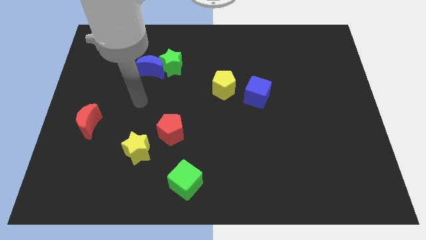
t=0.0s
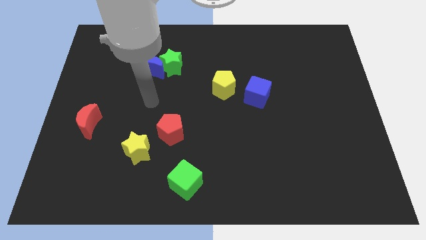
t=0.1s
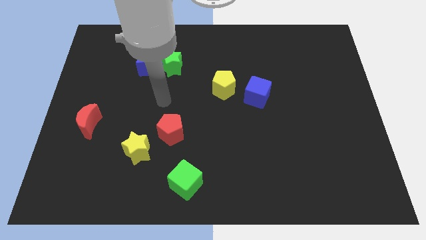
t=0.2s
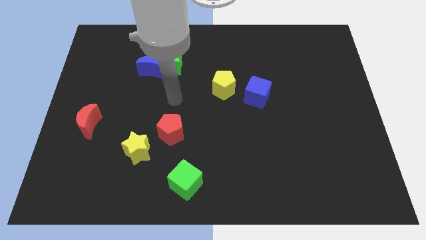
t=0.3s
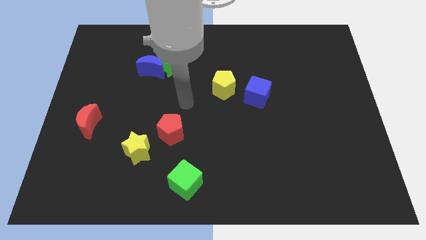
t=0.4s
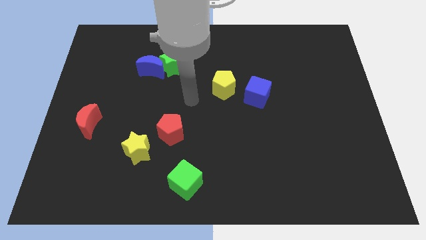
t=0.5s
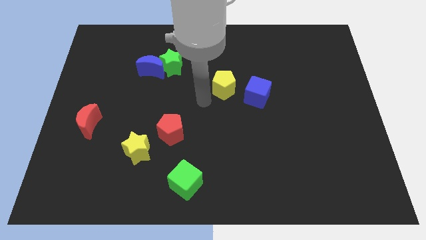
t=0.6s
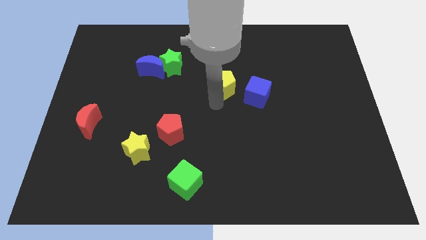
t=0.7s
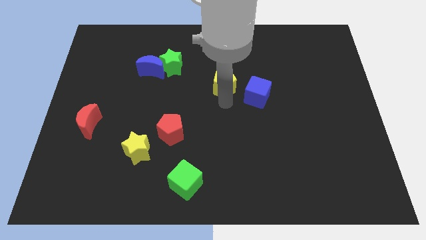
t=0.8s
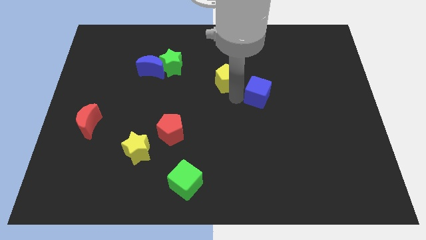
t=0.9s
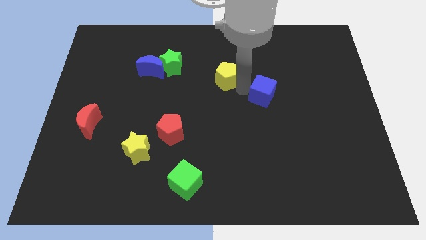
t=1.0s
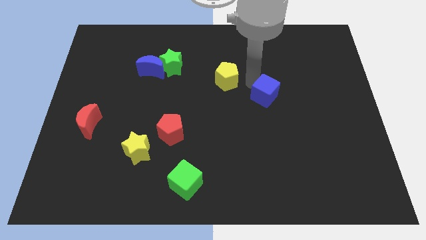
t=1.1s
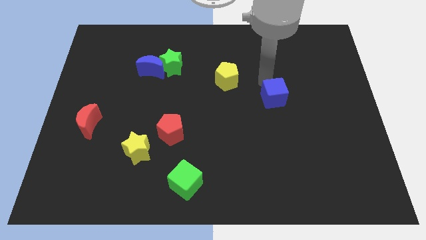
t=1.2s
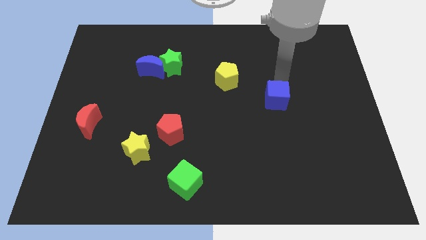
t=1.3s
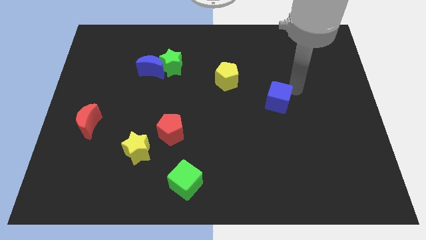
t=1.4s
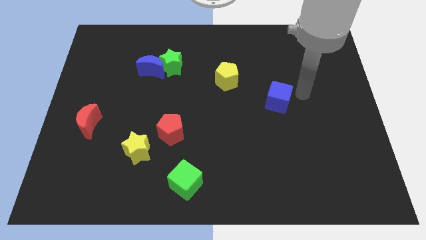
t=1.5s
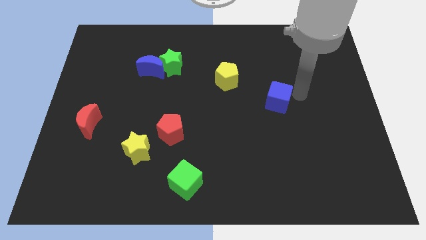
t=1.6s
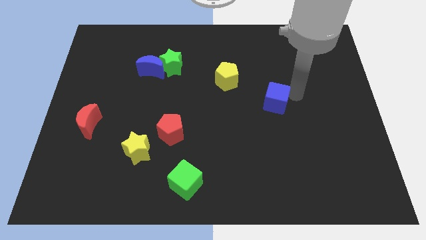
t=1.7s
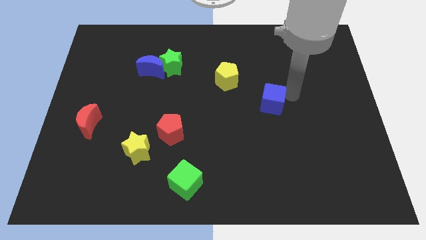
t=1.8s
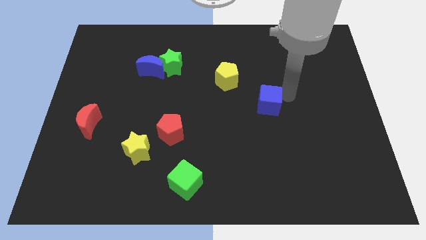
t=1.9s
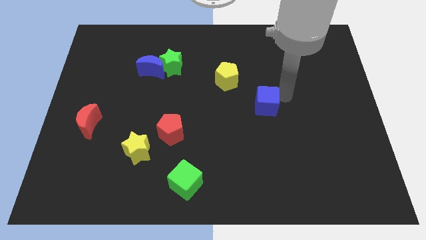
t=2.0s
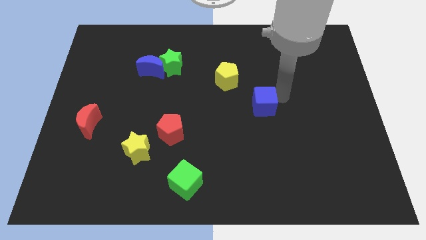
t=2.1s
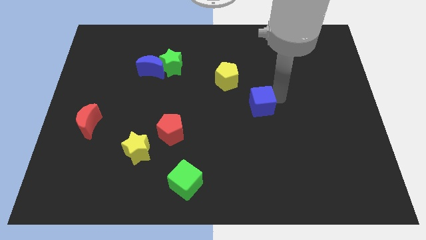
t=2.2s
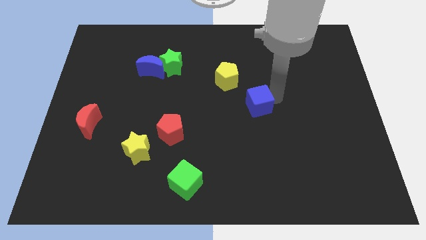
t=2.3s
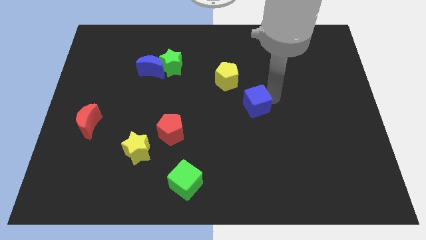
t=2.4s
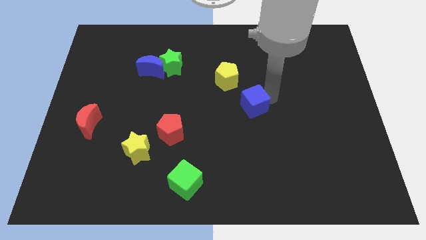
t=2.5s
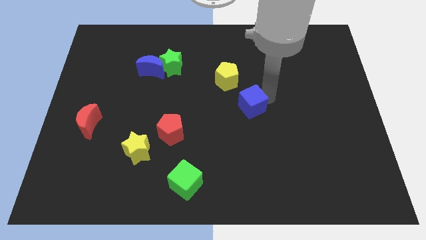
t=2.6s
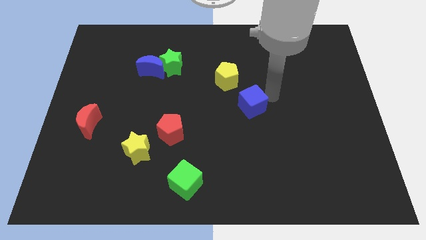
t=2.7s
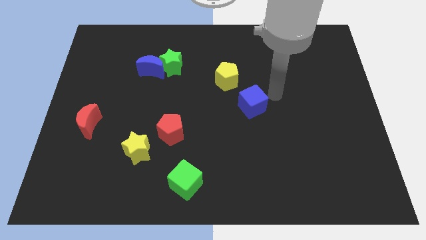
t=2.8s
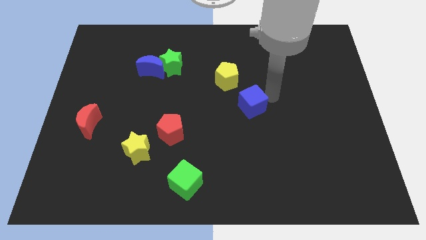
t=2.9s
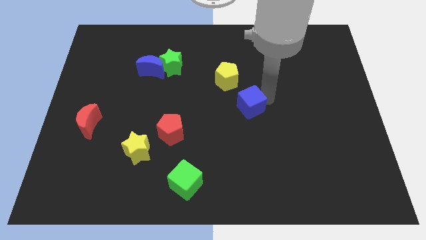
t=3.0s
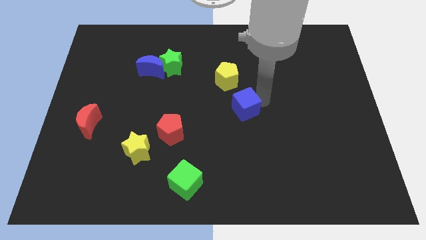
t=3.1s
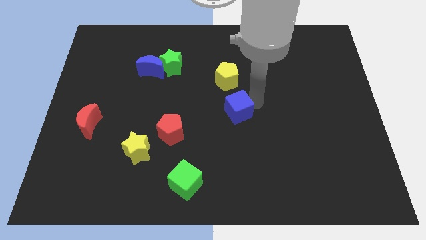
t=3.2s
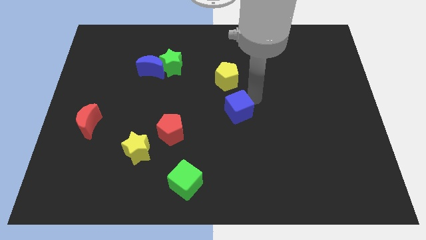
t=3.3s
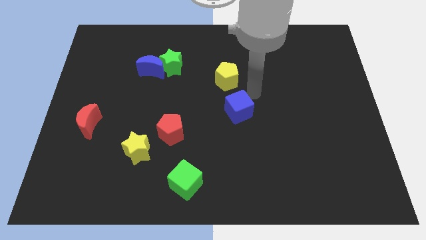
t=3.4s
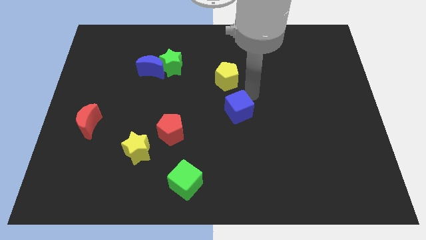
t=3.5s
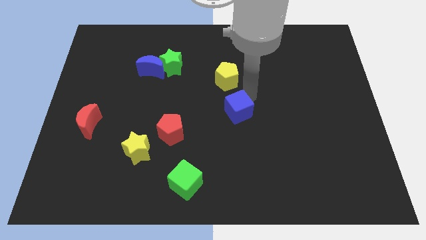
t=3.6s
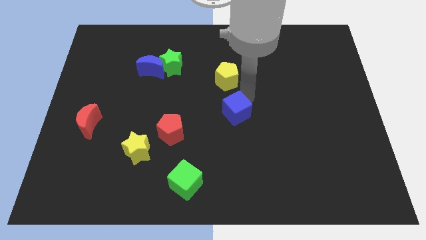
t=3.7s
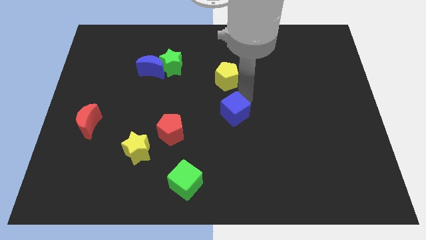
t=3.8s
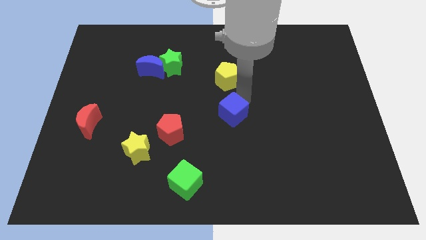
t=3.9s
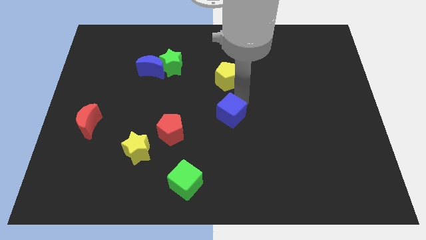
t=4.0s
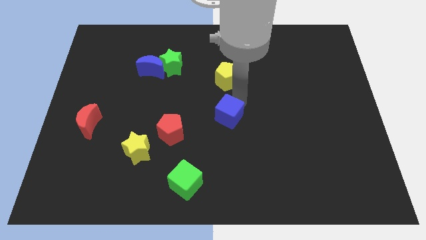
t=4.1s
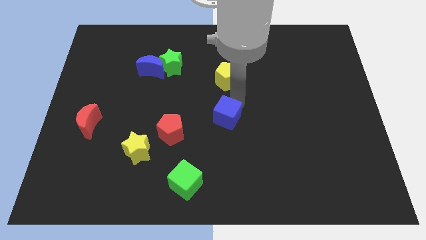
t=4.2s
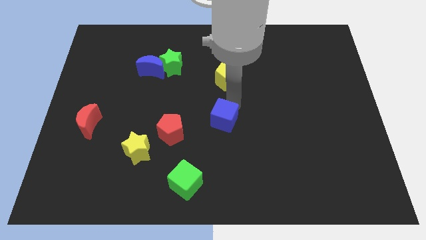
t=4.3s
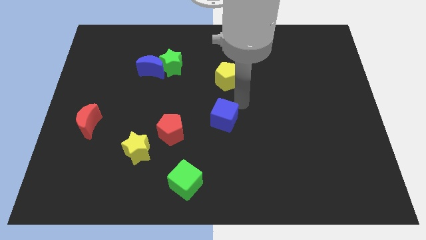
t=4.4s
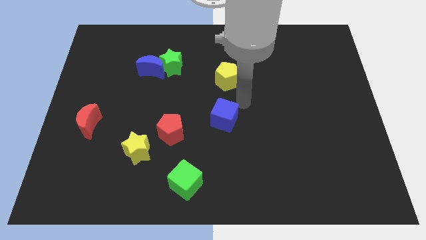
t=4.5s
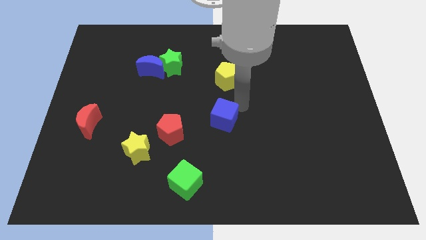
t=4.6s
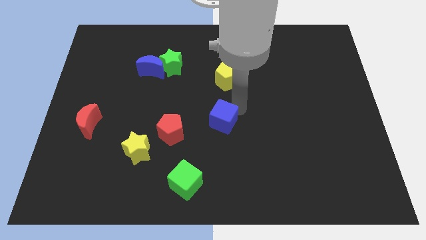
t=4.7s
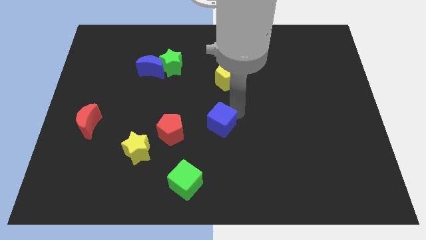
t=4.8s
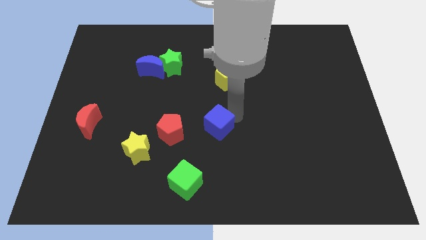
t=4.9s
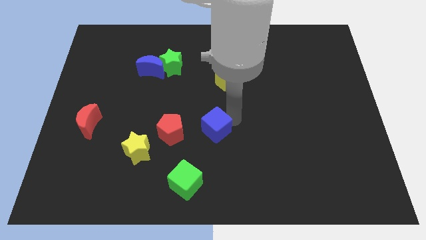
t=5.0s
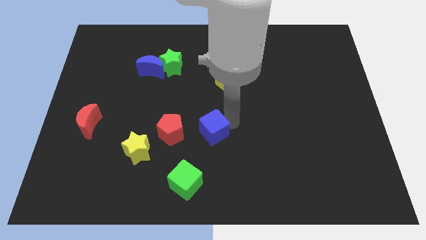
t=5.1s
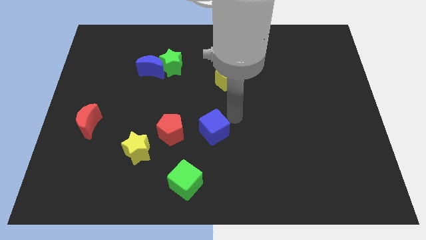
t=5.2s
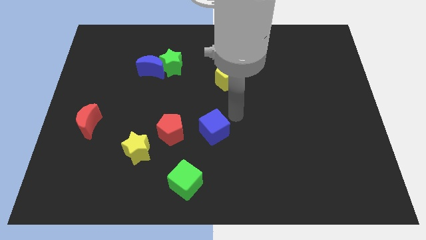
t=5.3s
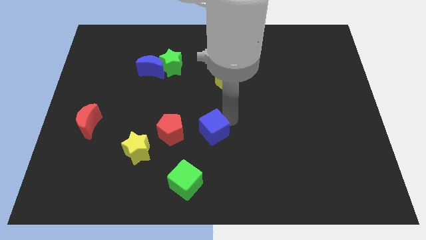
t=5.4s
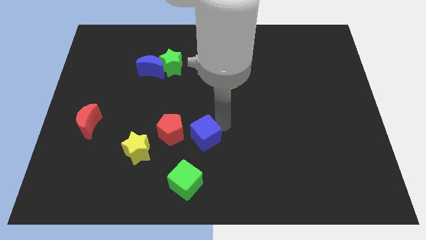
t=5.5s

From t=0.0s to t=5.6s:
push the blue cube right of the yellow star

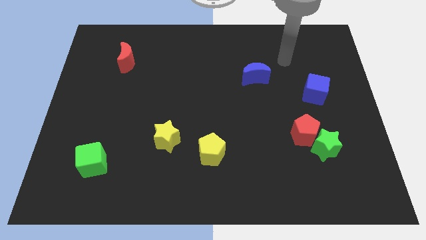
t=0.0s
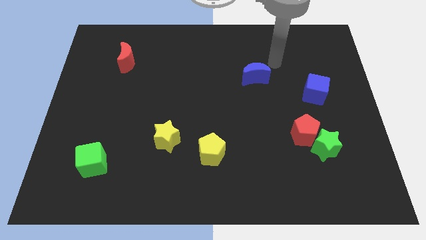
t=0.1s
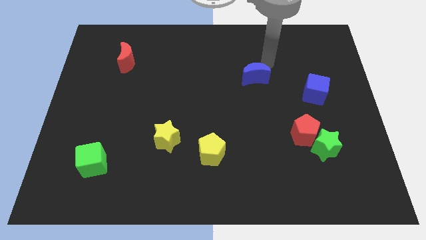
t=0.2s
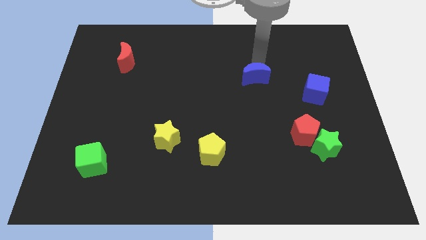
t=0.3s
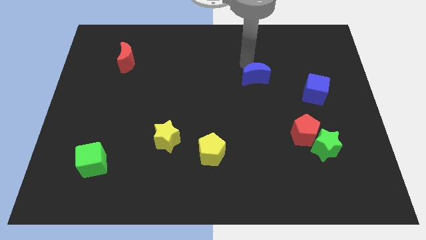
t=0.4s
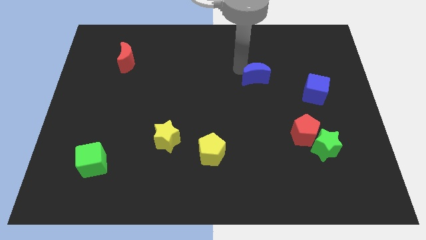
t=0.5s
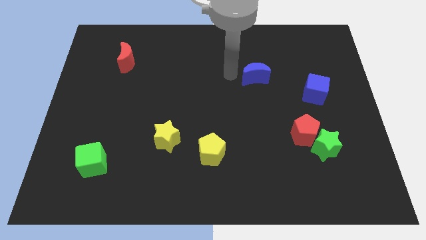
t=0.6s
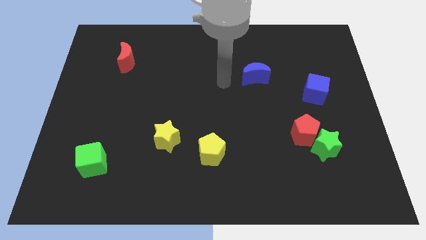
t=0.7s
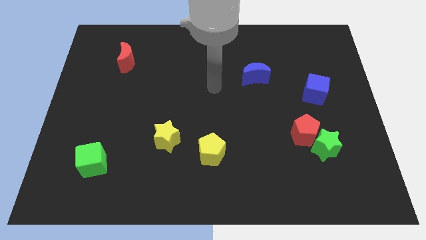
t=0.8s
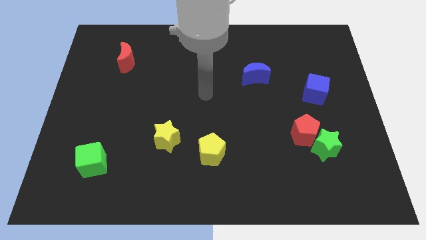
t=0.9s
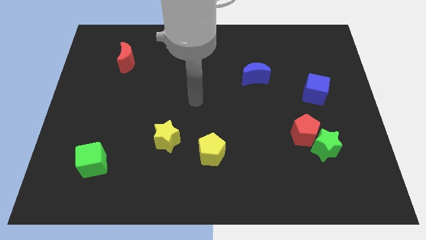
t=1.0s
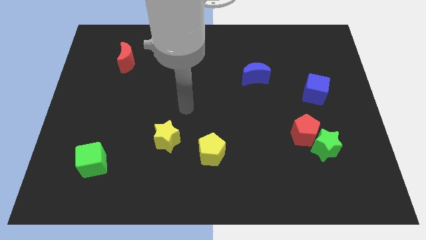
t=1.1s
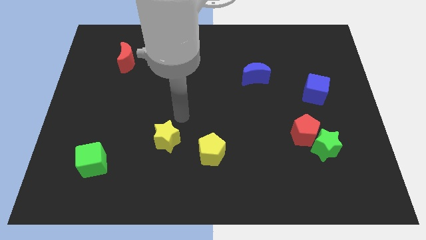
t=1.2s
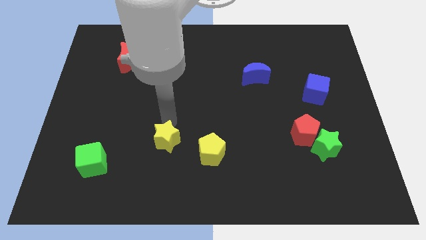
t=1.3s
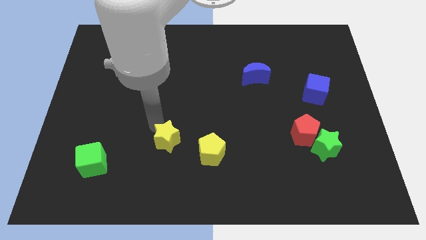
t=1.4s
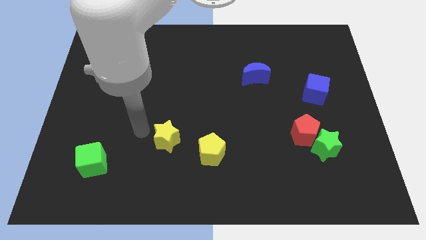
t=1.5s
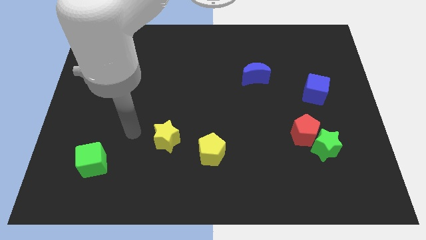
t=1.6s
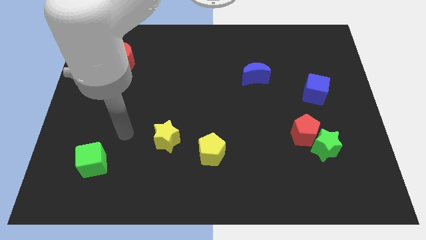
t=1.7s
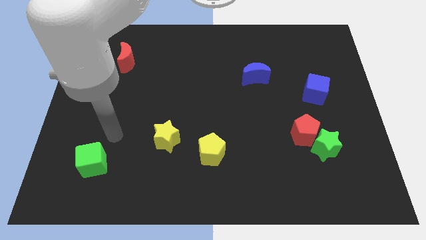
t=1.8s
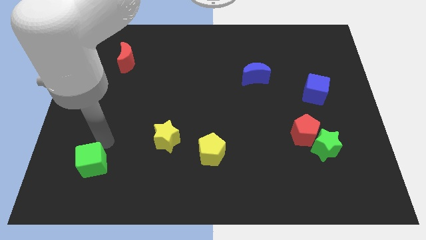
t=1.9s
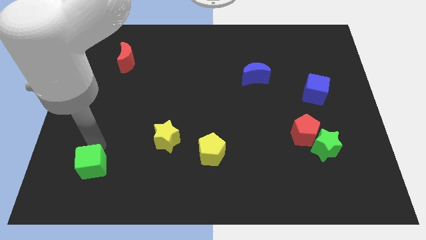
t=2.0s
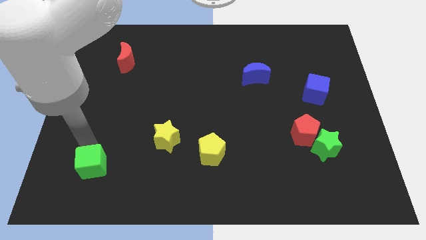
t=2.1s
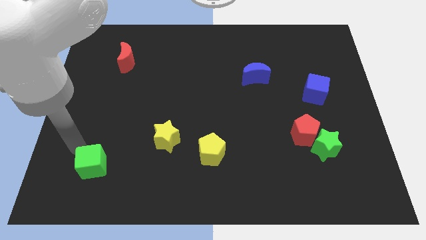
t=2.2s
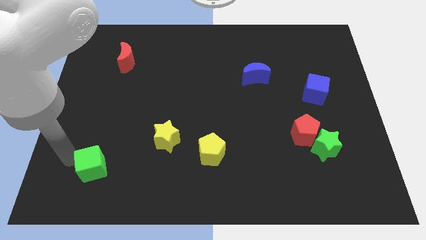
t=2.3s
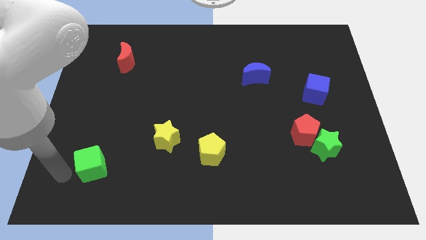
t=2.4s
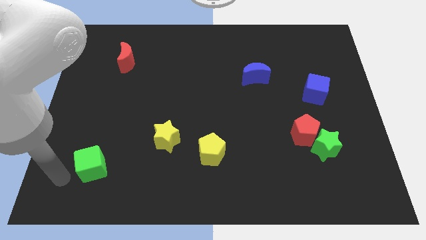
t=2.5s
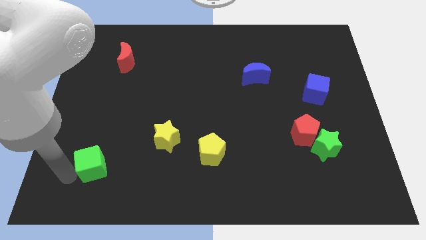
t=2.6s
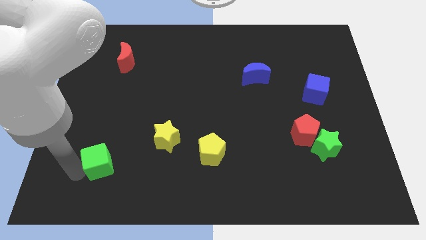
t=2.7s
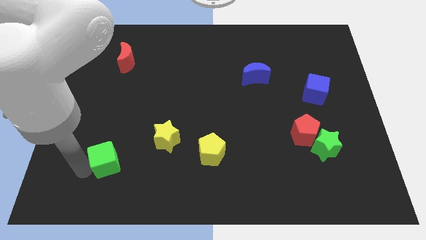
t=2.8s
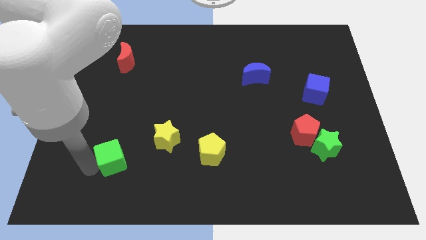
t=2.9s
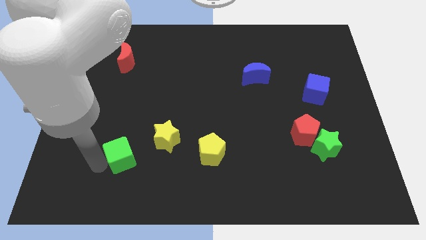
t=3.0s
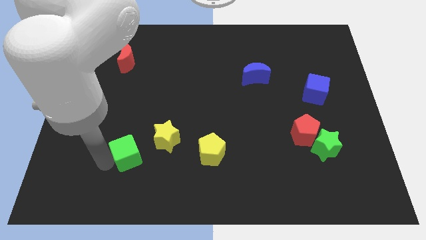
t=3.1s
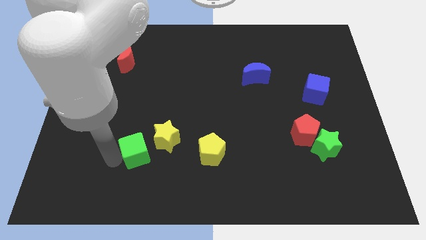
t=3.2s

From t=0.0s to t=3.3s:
push the green cube to the left of the yellow pentagon
